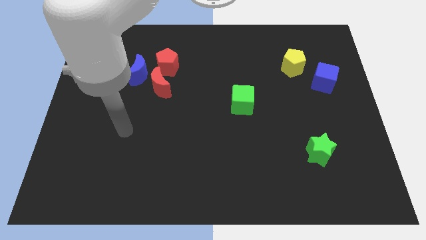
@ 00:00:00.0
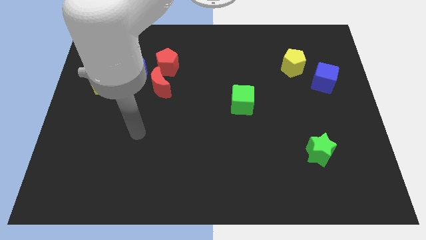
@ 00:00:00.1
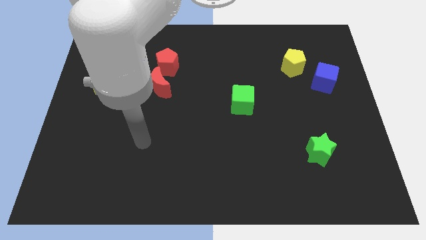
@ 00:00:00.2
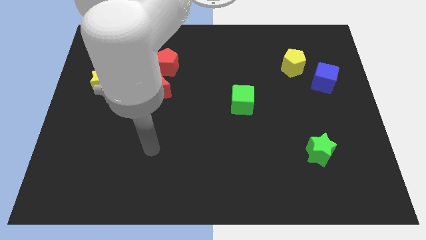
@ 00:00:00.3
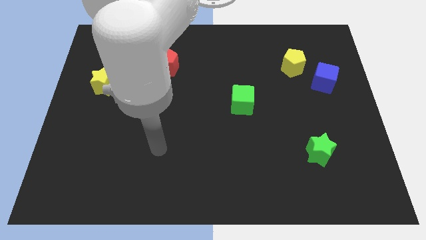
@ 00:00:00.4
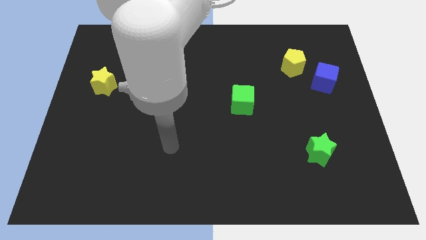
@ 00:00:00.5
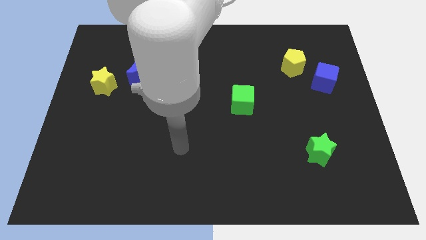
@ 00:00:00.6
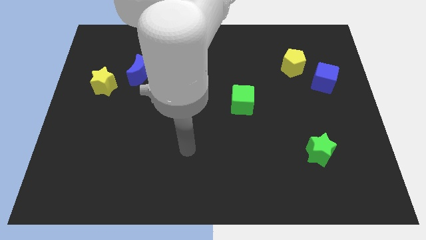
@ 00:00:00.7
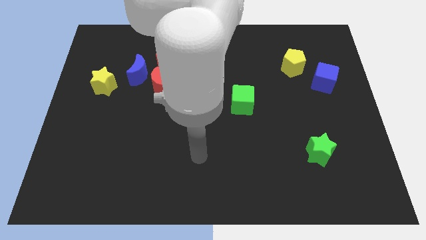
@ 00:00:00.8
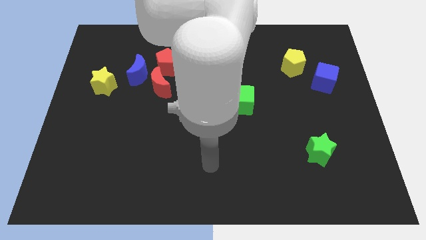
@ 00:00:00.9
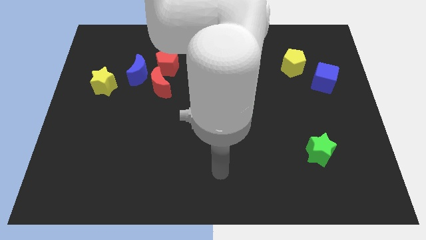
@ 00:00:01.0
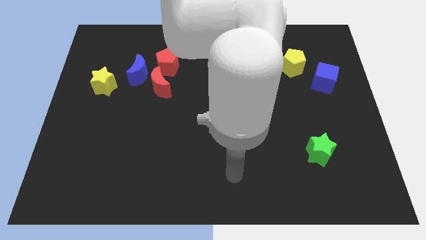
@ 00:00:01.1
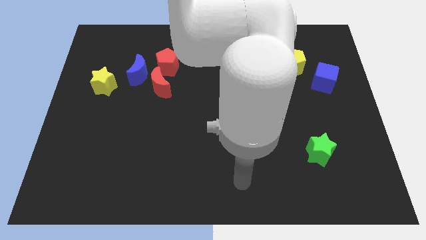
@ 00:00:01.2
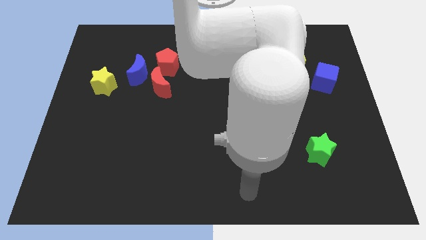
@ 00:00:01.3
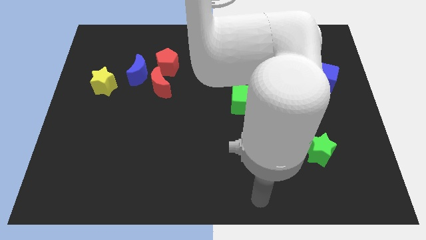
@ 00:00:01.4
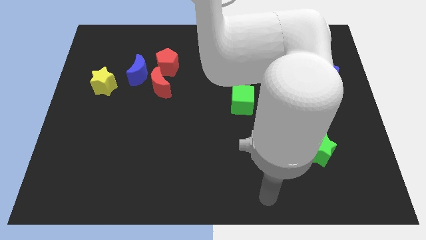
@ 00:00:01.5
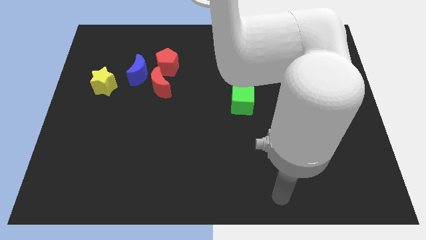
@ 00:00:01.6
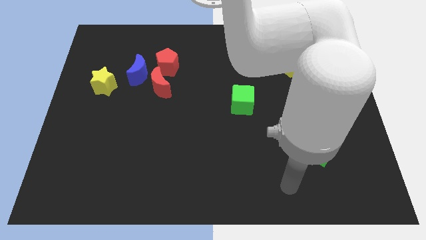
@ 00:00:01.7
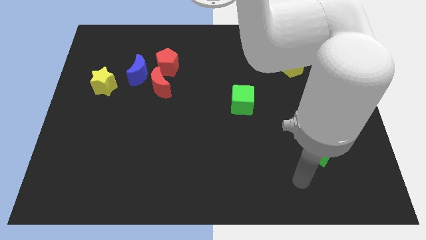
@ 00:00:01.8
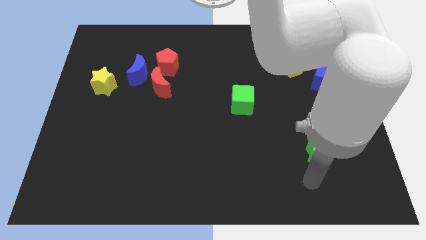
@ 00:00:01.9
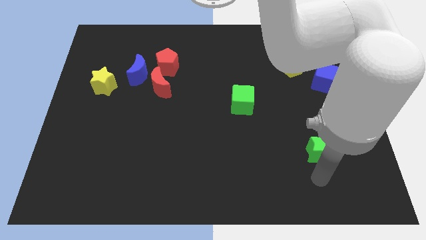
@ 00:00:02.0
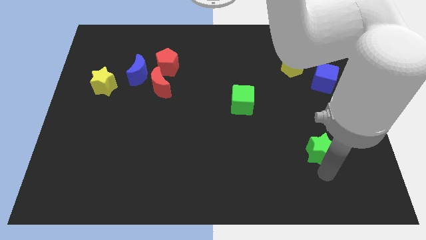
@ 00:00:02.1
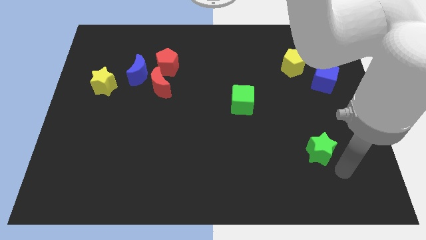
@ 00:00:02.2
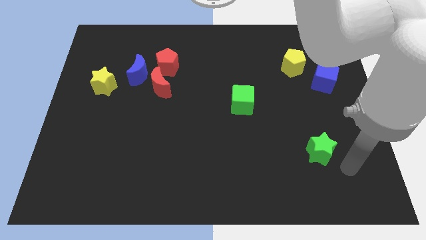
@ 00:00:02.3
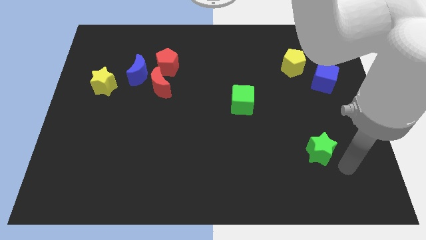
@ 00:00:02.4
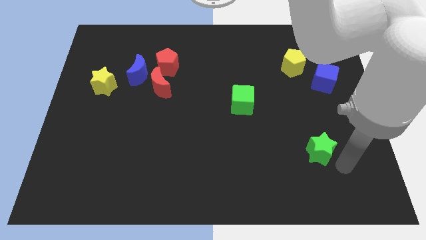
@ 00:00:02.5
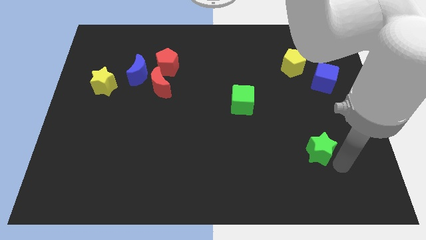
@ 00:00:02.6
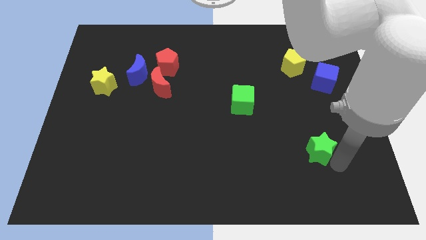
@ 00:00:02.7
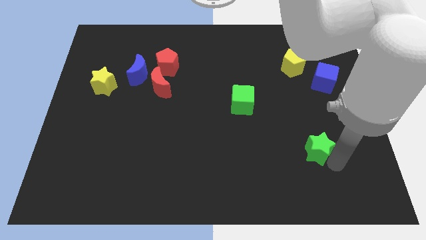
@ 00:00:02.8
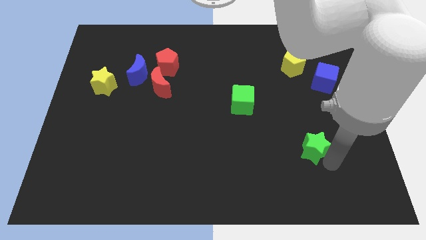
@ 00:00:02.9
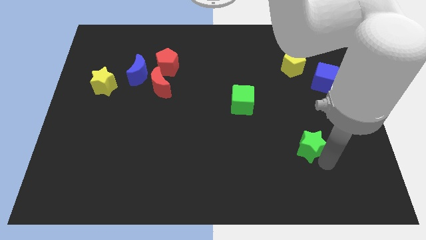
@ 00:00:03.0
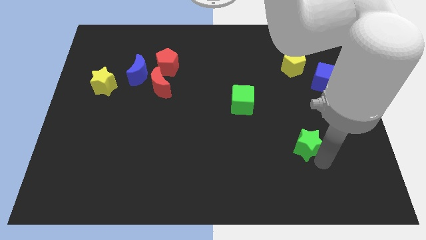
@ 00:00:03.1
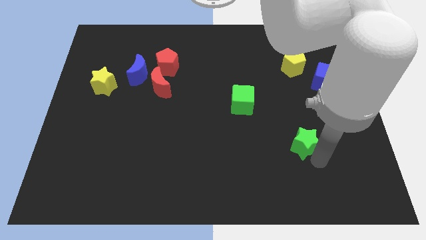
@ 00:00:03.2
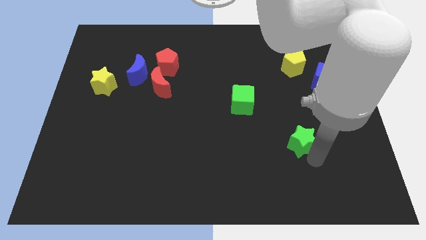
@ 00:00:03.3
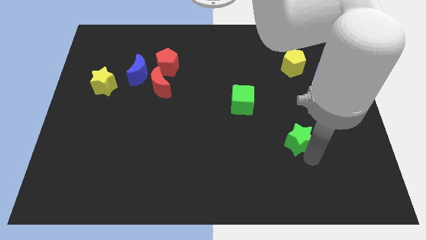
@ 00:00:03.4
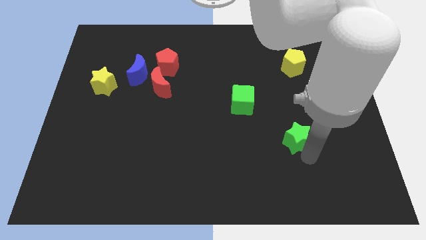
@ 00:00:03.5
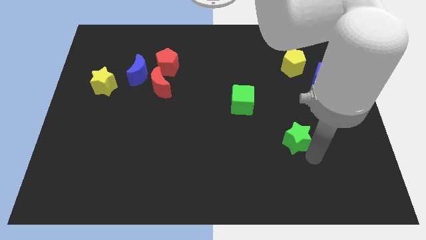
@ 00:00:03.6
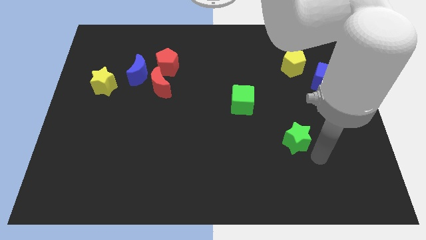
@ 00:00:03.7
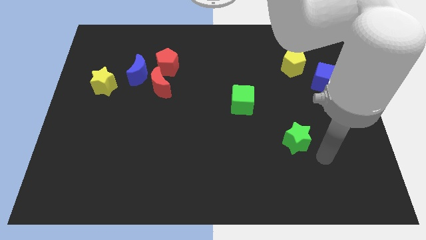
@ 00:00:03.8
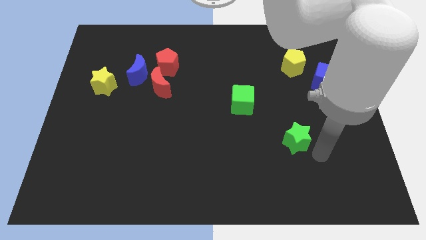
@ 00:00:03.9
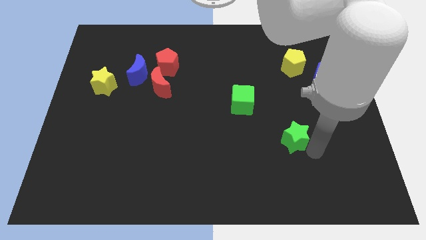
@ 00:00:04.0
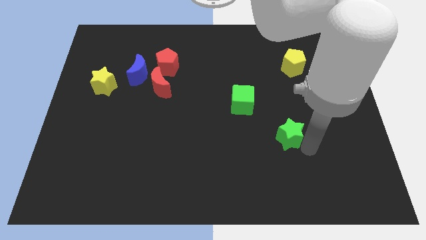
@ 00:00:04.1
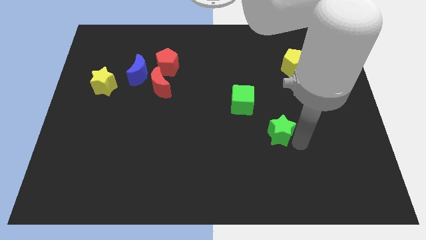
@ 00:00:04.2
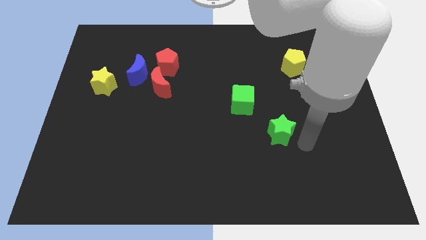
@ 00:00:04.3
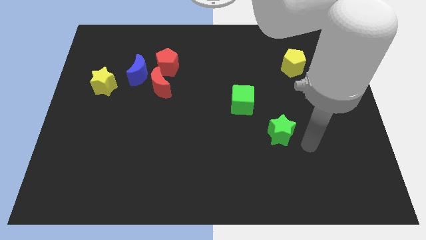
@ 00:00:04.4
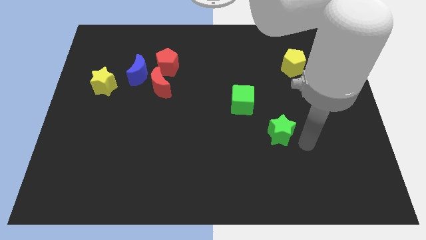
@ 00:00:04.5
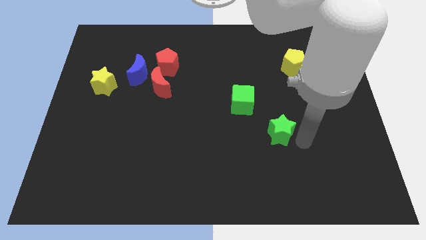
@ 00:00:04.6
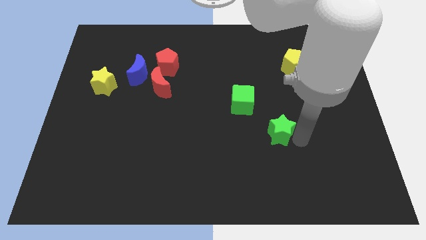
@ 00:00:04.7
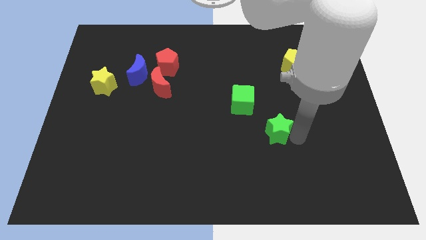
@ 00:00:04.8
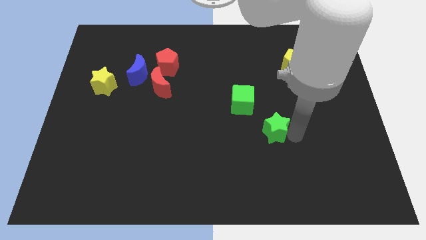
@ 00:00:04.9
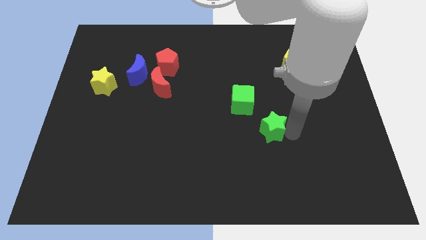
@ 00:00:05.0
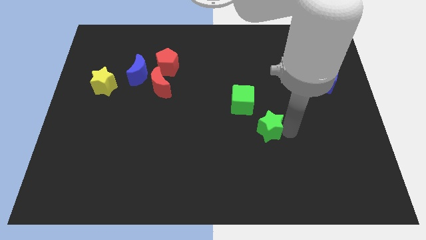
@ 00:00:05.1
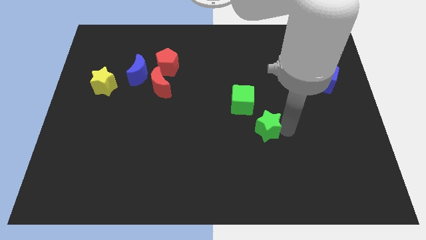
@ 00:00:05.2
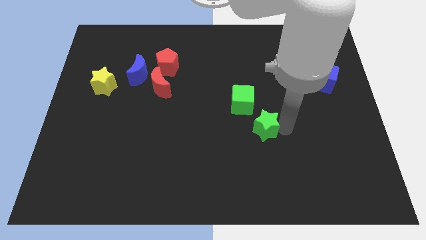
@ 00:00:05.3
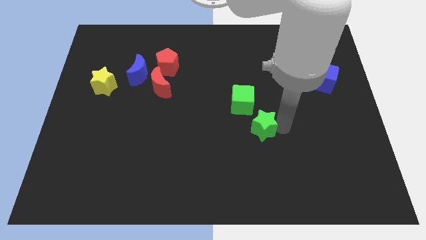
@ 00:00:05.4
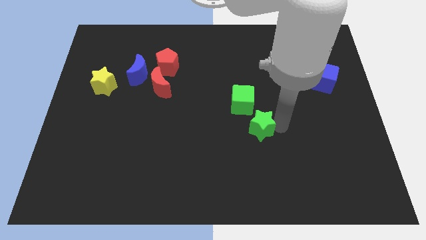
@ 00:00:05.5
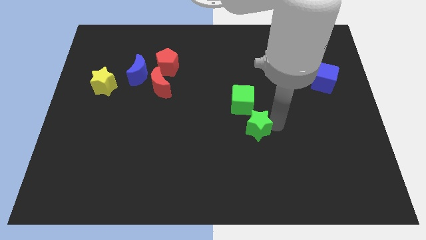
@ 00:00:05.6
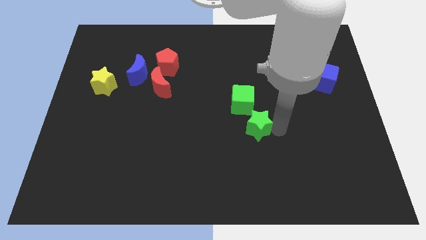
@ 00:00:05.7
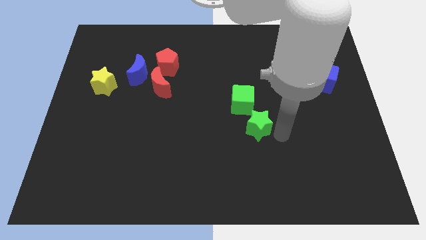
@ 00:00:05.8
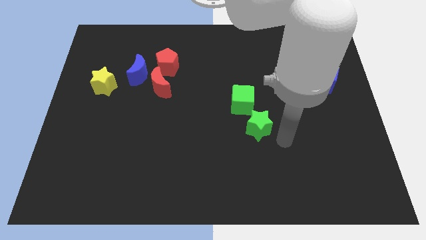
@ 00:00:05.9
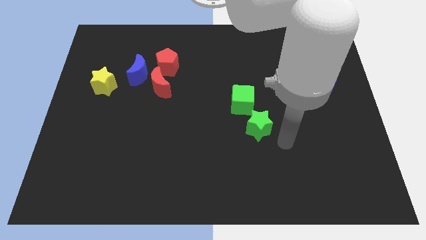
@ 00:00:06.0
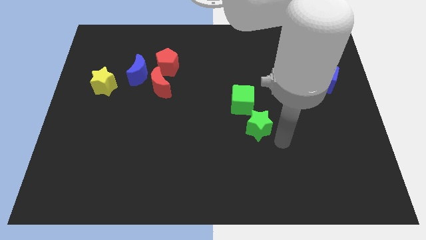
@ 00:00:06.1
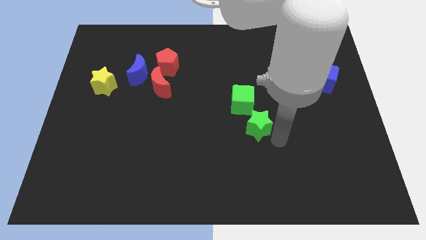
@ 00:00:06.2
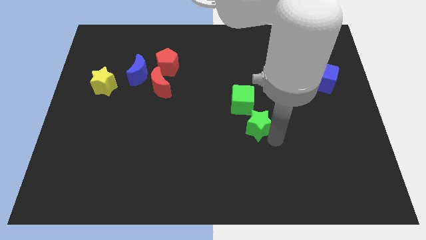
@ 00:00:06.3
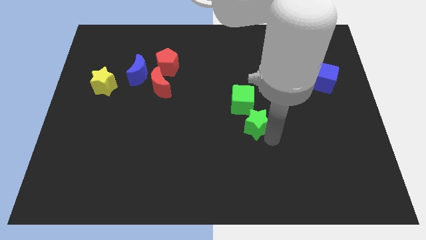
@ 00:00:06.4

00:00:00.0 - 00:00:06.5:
push the green star to the middle of the board

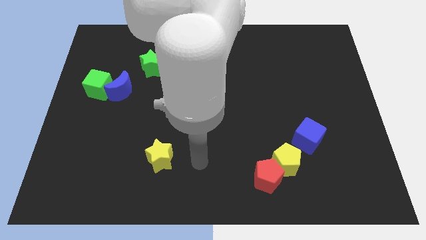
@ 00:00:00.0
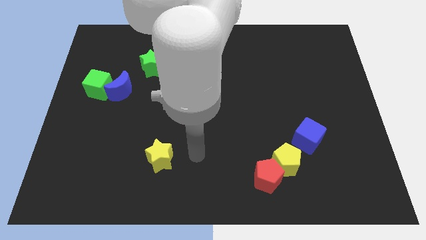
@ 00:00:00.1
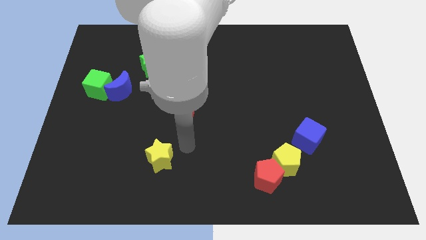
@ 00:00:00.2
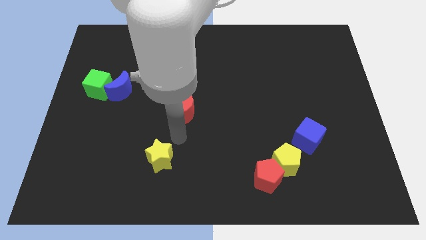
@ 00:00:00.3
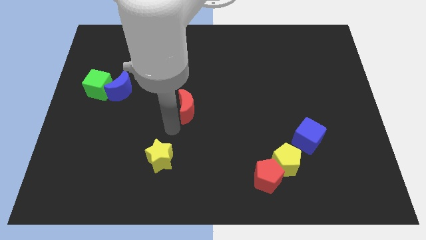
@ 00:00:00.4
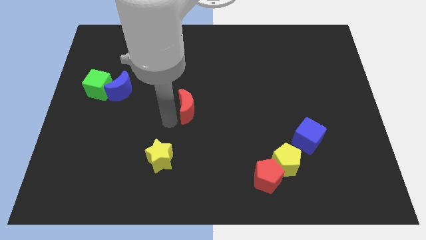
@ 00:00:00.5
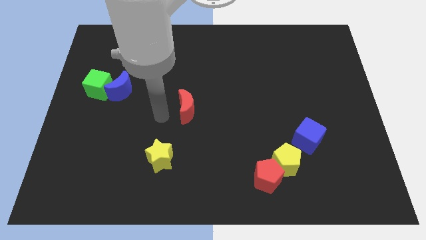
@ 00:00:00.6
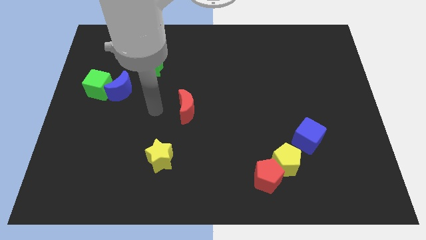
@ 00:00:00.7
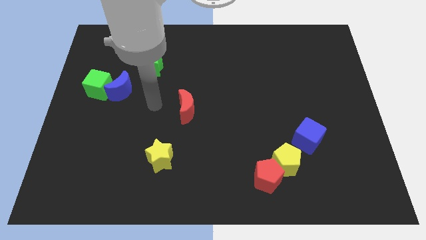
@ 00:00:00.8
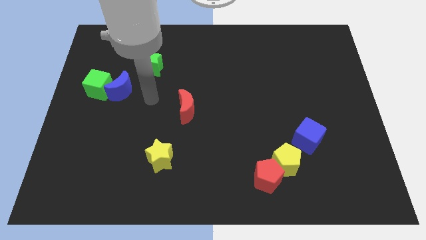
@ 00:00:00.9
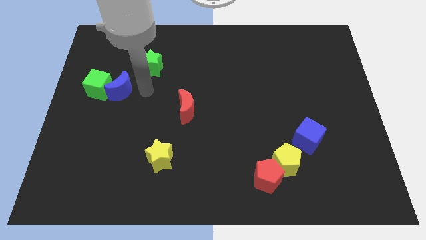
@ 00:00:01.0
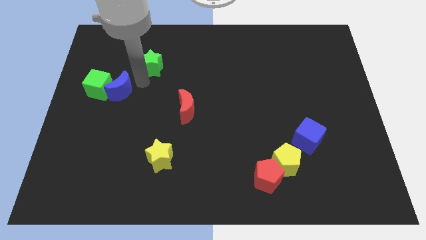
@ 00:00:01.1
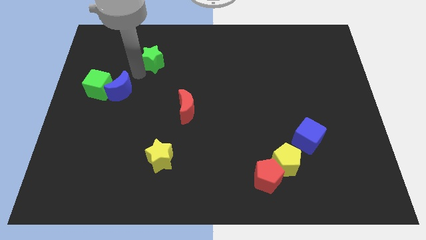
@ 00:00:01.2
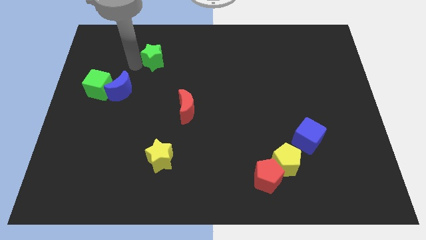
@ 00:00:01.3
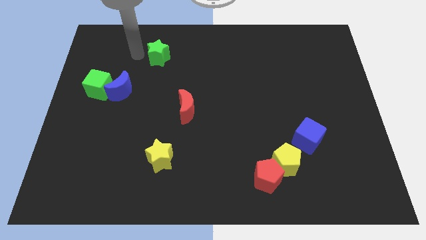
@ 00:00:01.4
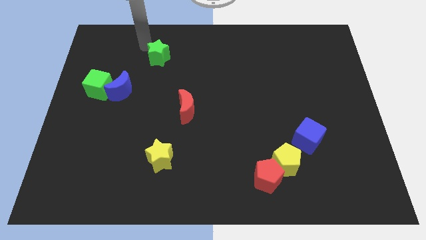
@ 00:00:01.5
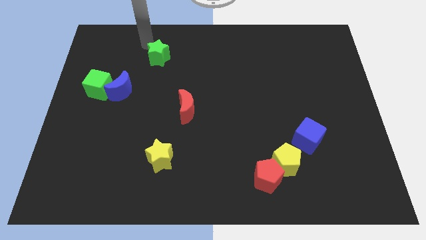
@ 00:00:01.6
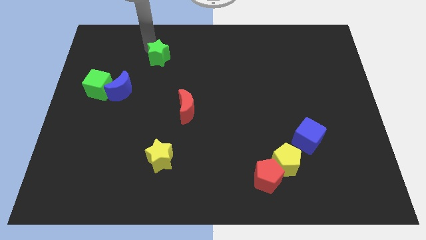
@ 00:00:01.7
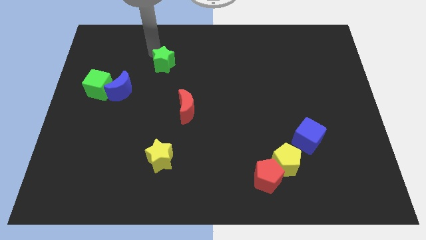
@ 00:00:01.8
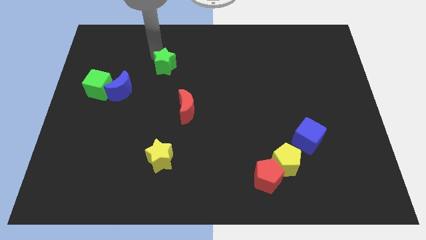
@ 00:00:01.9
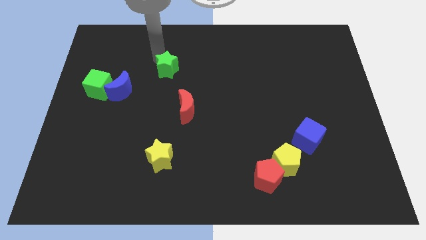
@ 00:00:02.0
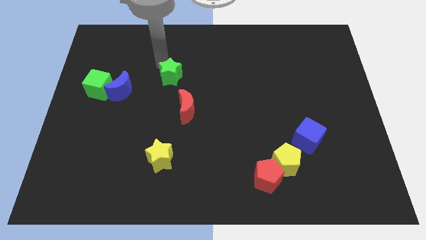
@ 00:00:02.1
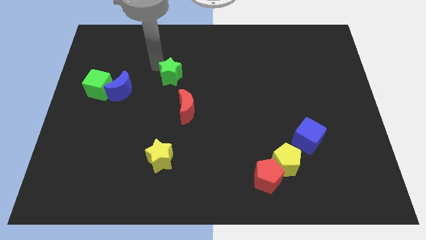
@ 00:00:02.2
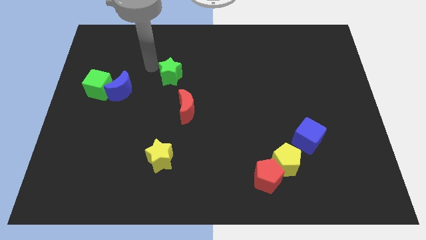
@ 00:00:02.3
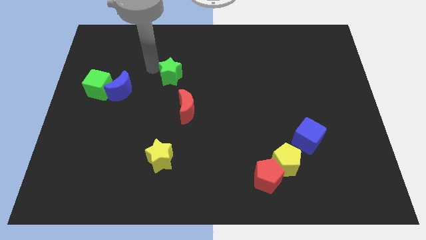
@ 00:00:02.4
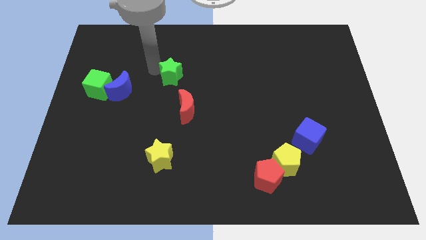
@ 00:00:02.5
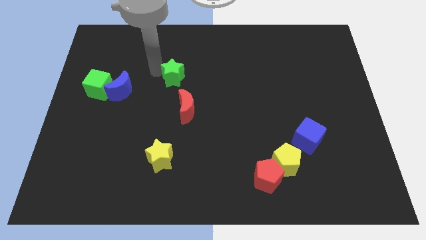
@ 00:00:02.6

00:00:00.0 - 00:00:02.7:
push the green star to the center
